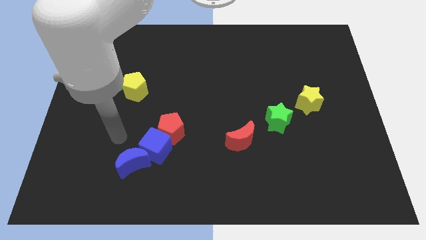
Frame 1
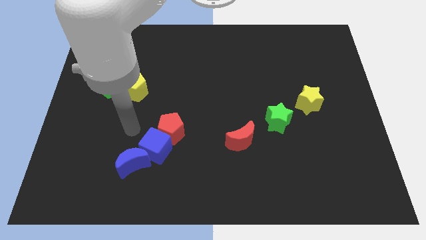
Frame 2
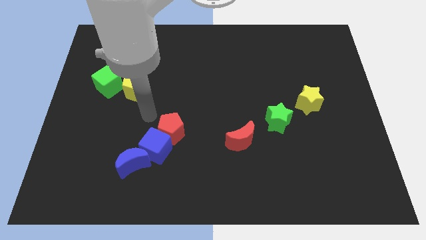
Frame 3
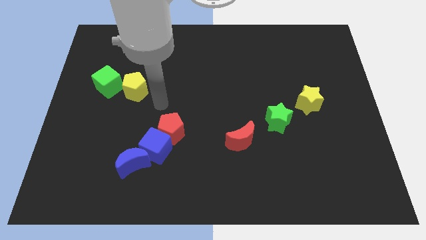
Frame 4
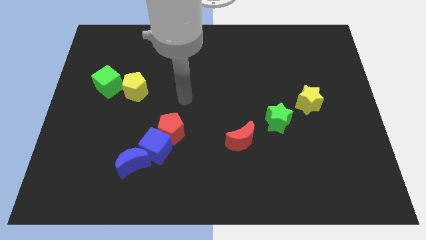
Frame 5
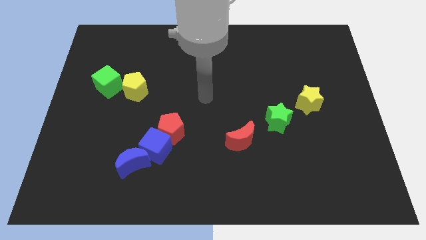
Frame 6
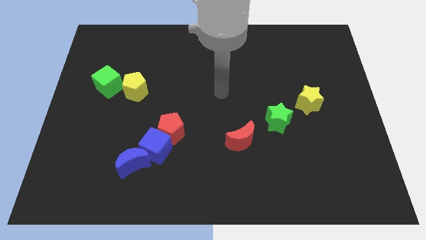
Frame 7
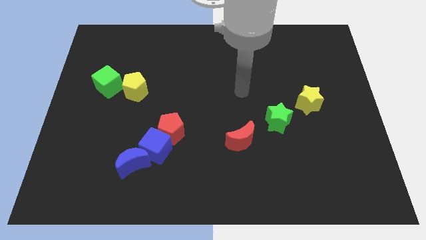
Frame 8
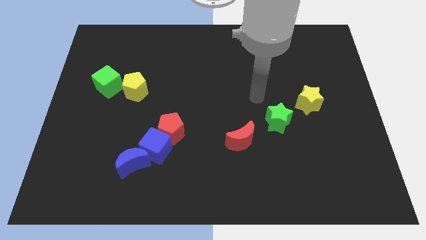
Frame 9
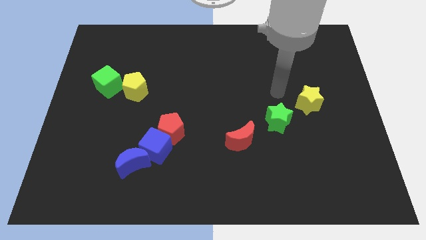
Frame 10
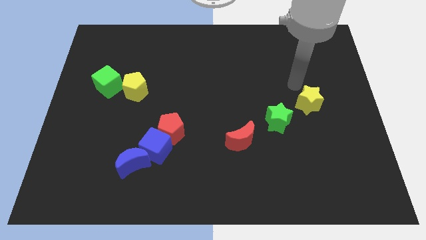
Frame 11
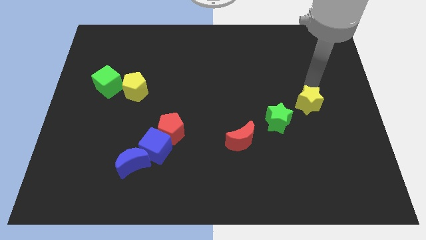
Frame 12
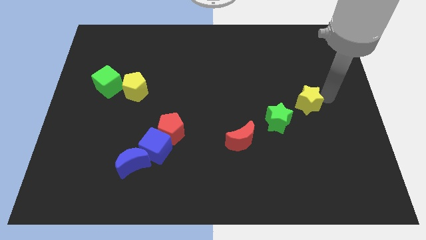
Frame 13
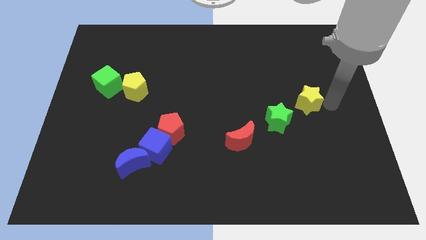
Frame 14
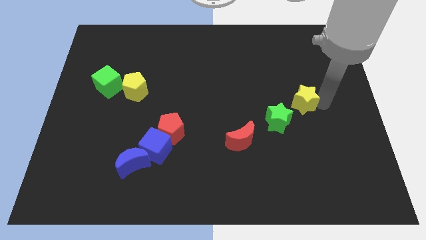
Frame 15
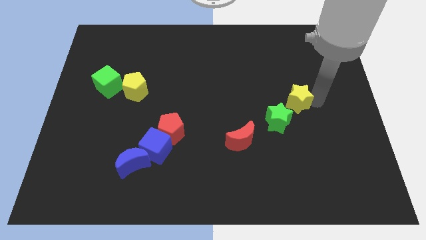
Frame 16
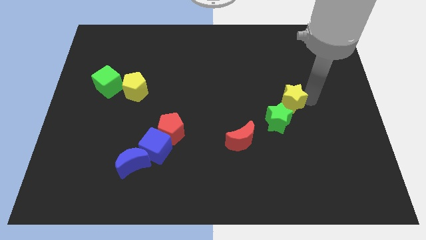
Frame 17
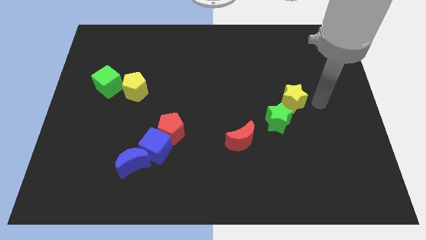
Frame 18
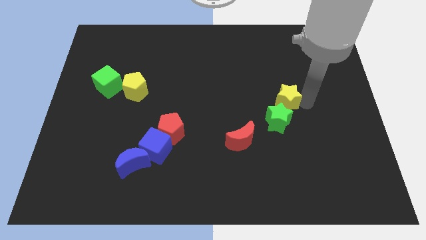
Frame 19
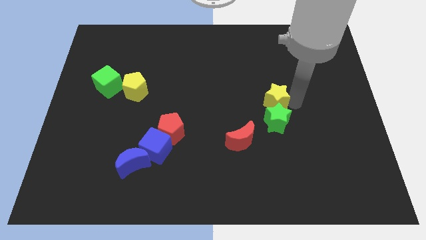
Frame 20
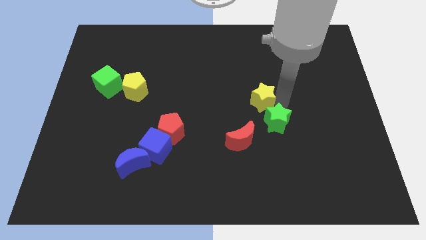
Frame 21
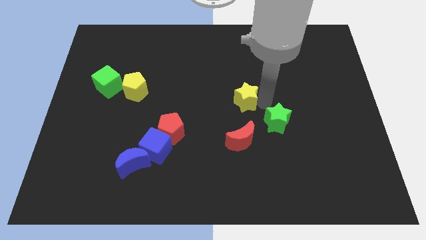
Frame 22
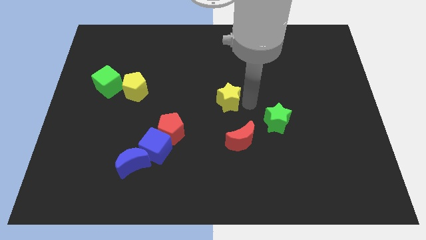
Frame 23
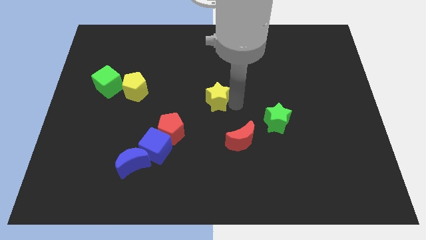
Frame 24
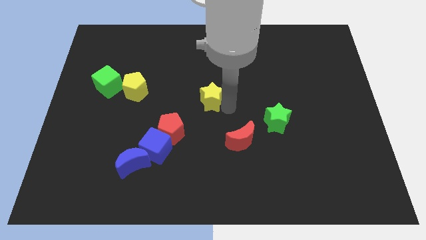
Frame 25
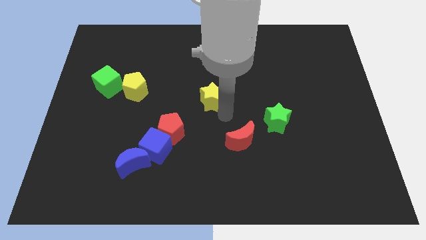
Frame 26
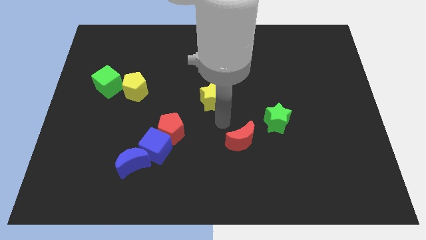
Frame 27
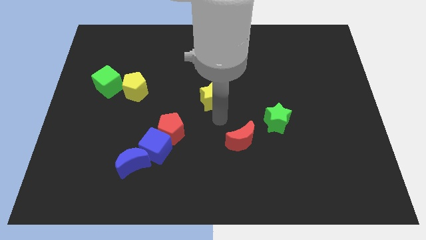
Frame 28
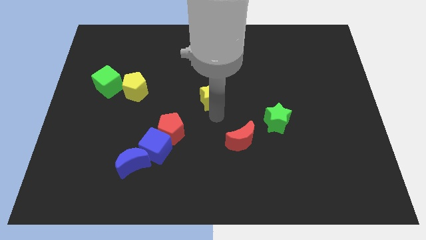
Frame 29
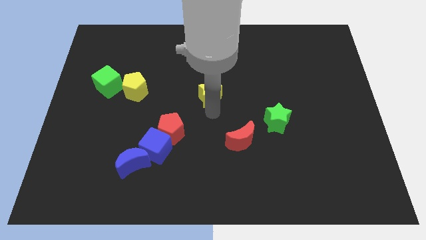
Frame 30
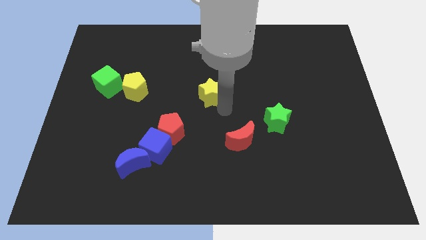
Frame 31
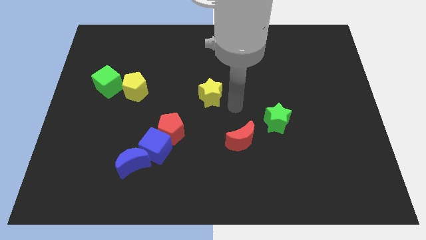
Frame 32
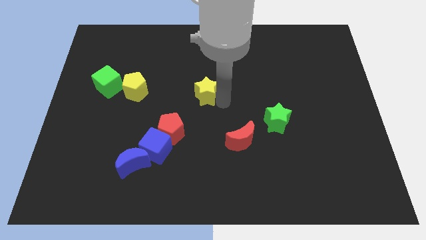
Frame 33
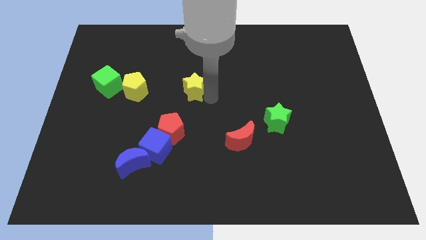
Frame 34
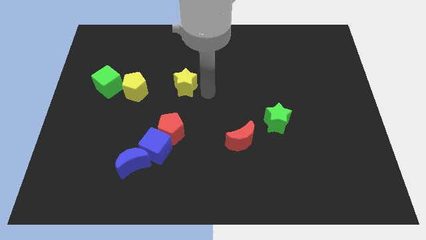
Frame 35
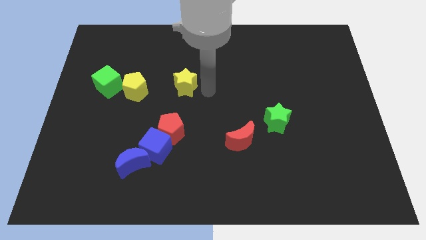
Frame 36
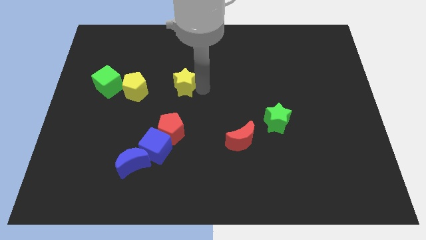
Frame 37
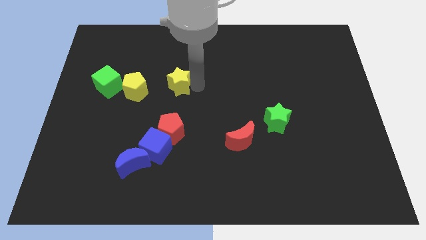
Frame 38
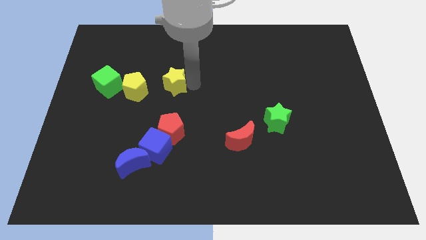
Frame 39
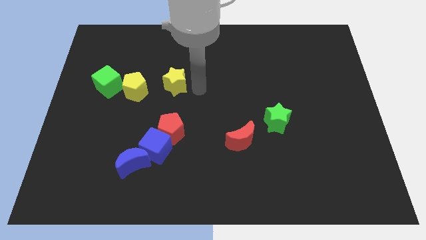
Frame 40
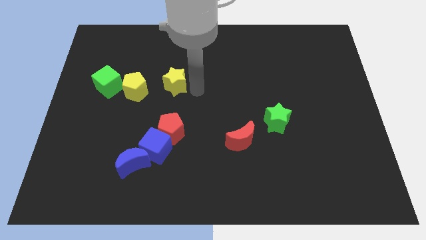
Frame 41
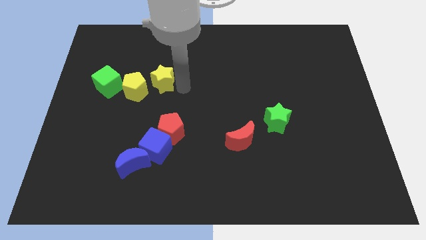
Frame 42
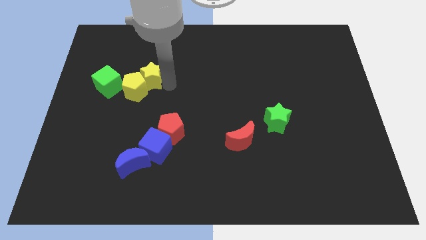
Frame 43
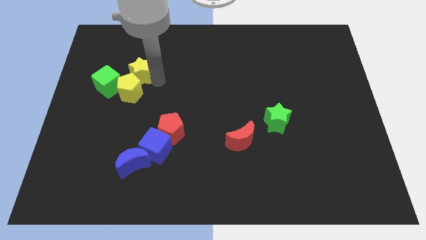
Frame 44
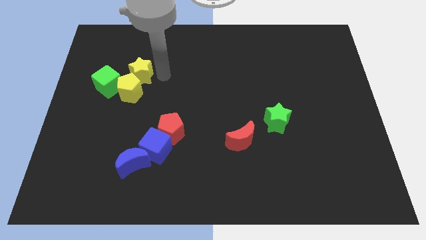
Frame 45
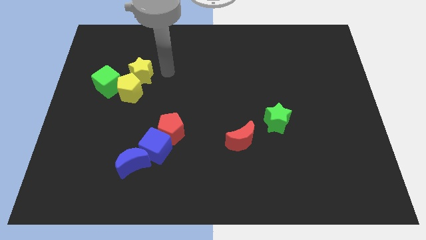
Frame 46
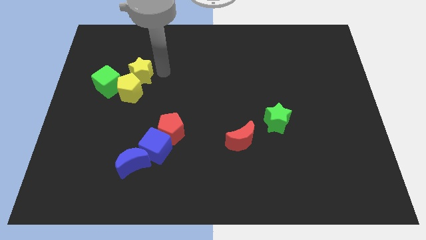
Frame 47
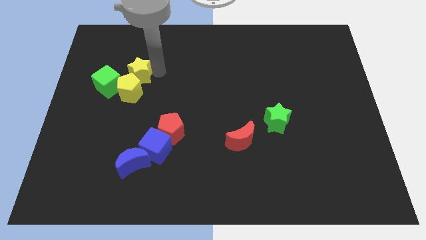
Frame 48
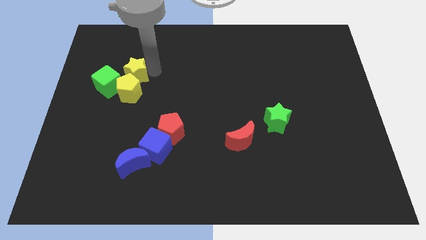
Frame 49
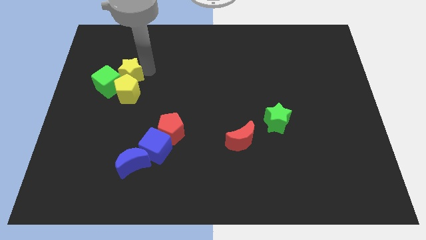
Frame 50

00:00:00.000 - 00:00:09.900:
push the yellow star to the green cube

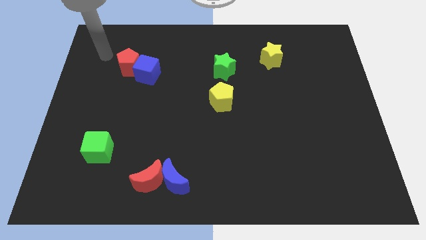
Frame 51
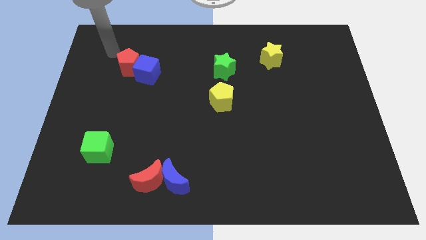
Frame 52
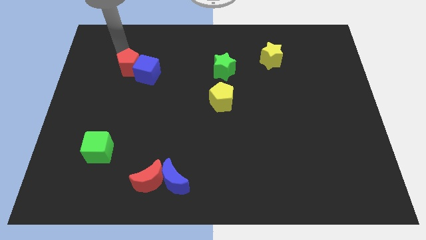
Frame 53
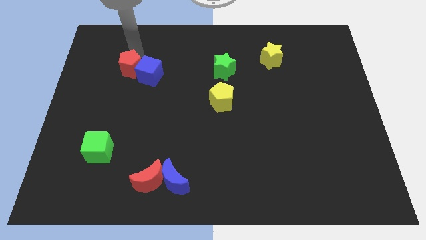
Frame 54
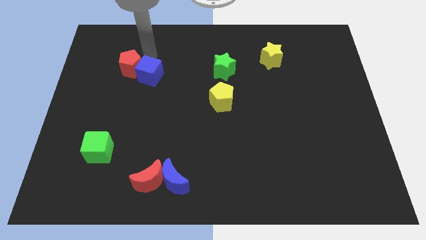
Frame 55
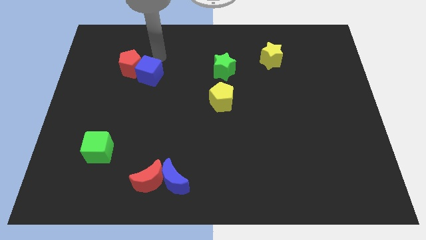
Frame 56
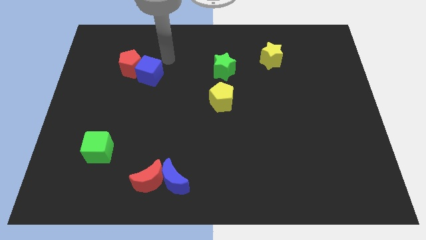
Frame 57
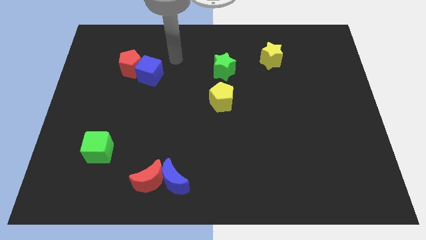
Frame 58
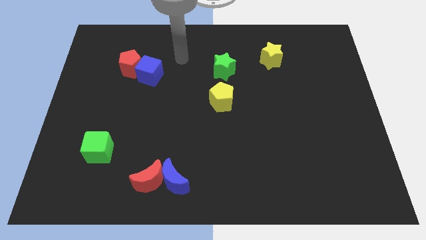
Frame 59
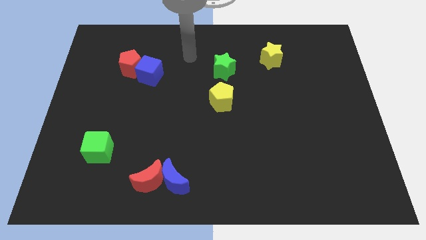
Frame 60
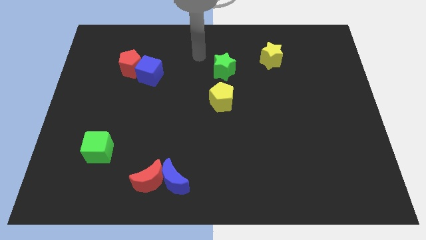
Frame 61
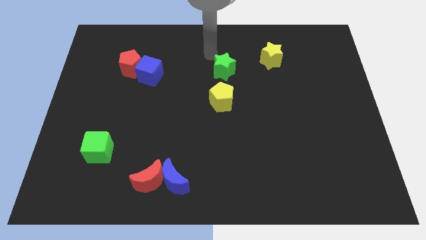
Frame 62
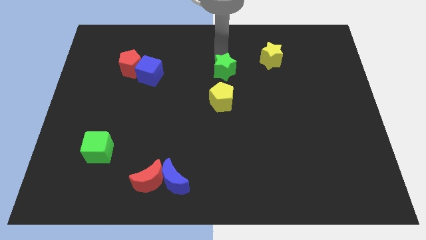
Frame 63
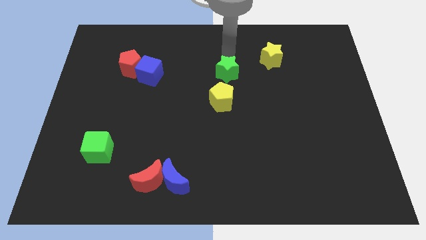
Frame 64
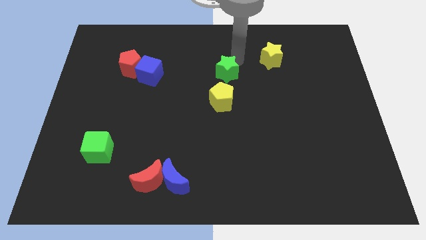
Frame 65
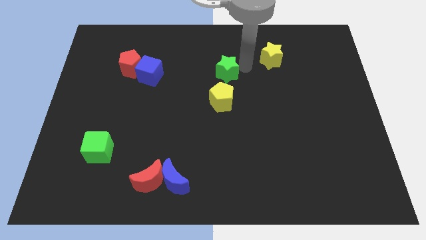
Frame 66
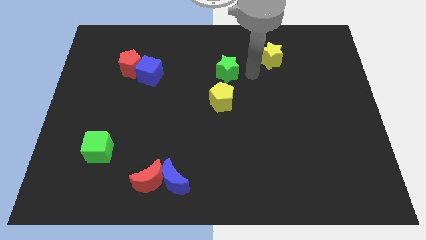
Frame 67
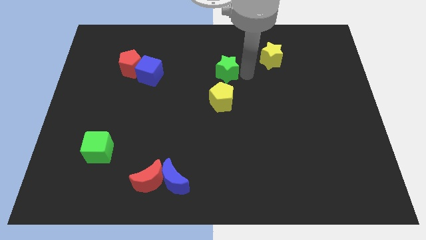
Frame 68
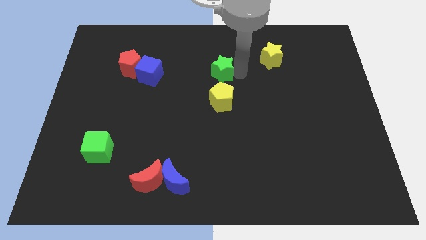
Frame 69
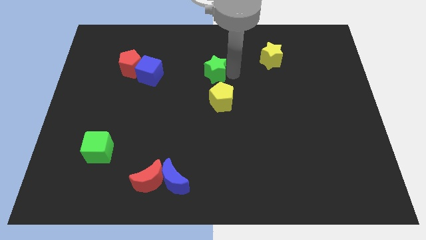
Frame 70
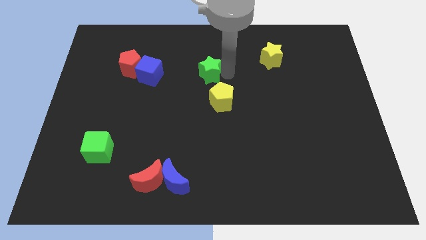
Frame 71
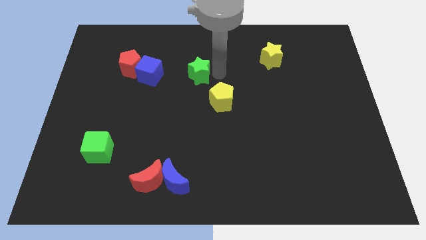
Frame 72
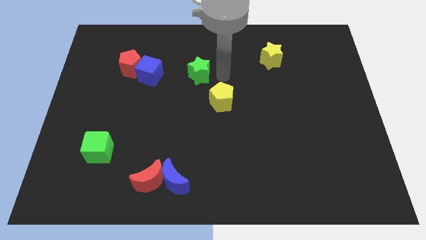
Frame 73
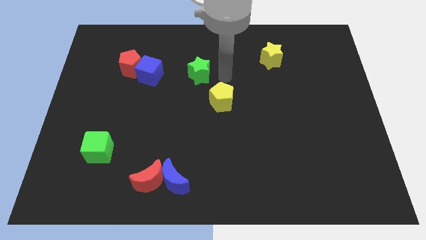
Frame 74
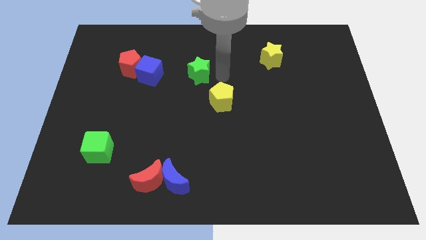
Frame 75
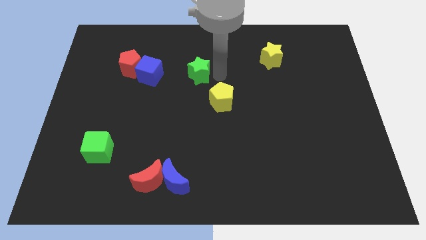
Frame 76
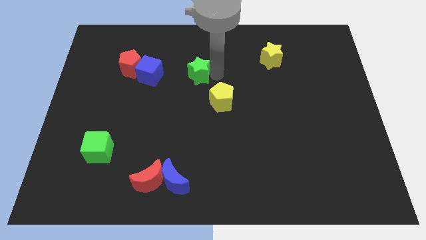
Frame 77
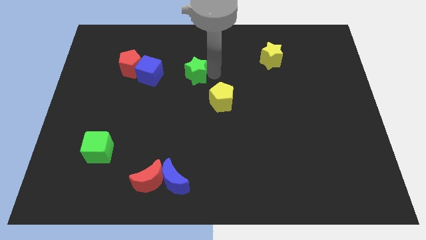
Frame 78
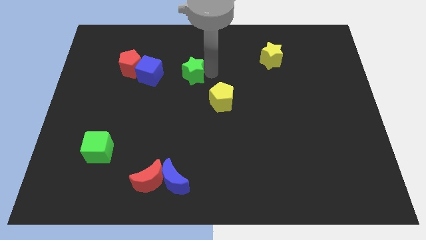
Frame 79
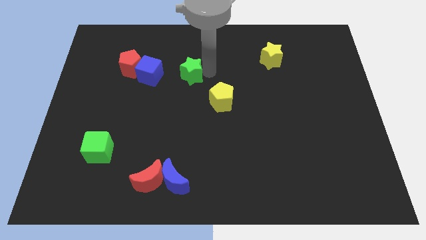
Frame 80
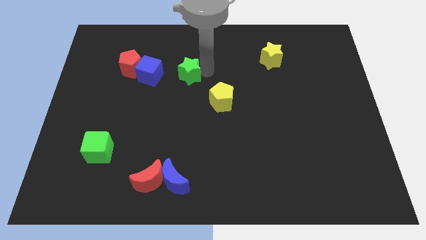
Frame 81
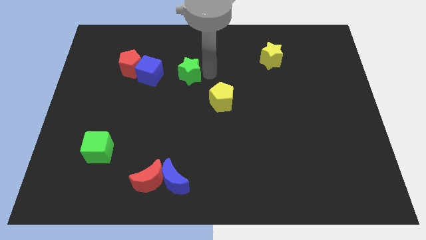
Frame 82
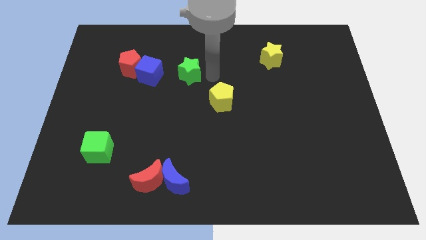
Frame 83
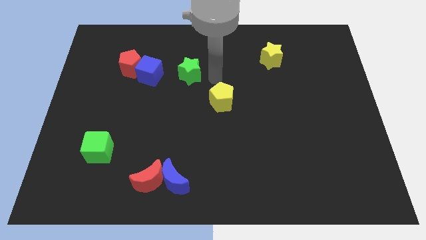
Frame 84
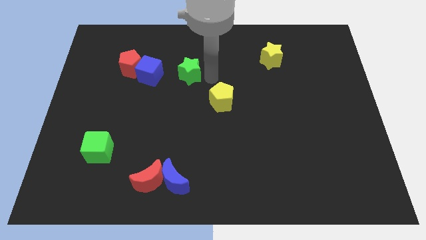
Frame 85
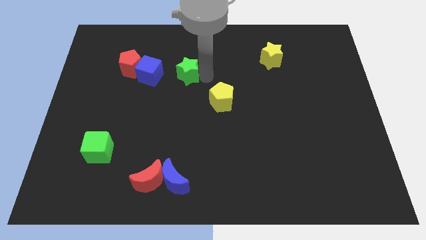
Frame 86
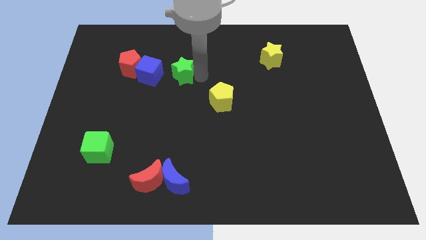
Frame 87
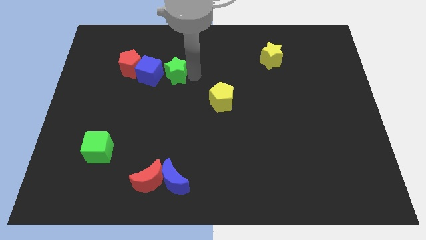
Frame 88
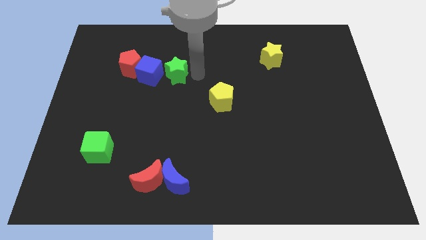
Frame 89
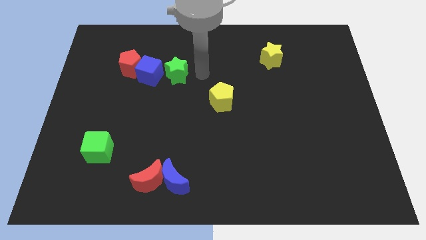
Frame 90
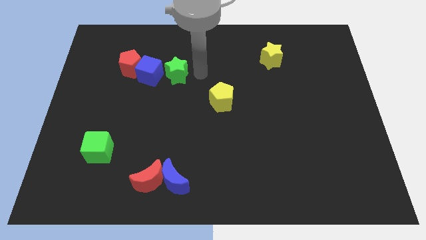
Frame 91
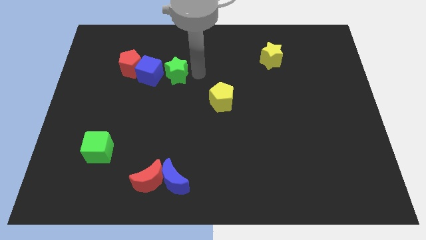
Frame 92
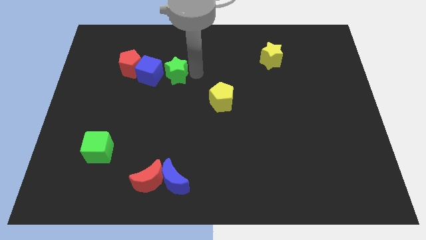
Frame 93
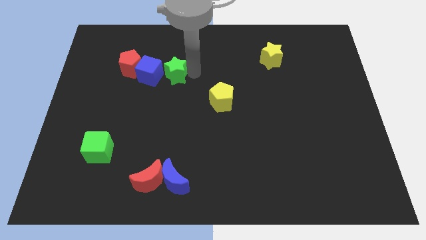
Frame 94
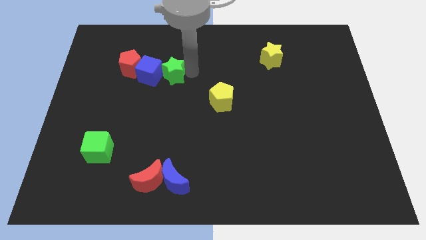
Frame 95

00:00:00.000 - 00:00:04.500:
slide the green star to the blue cube
